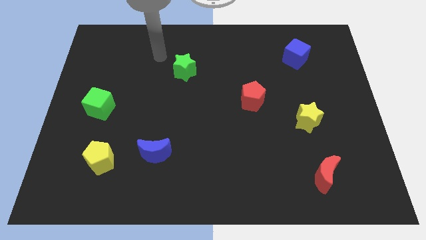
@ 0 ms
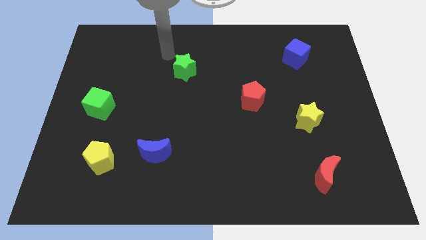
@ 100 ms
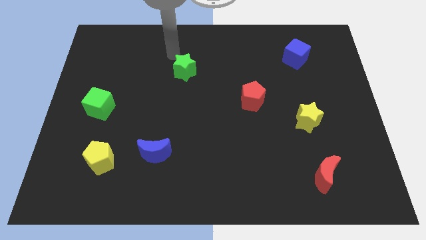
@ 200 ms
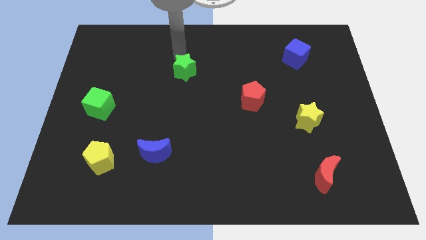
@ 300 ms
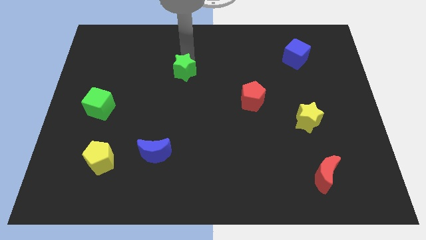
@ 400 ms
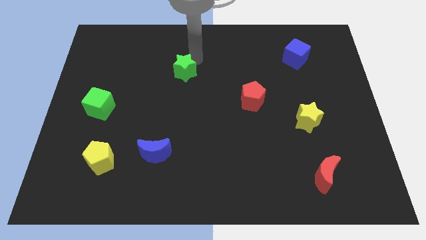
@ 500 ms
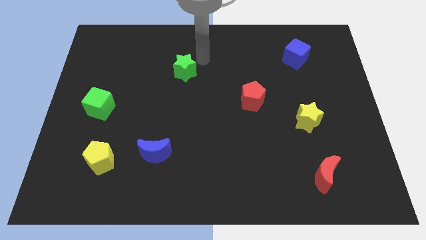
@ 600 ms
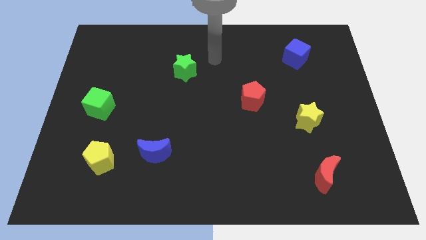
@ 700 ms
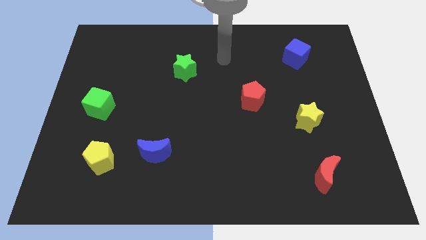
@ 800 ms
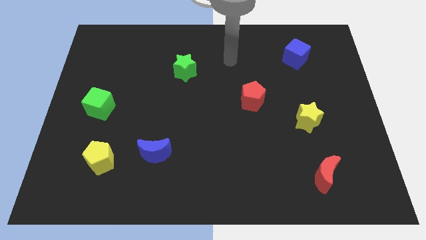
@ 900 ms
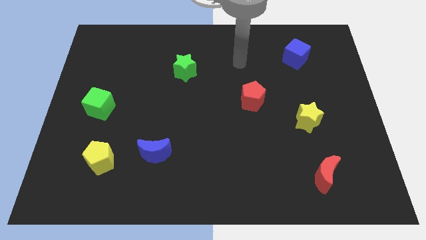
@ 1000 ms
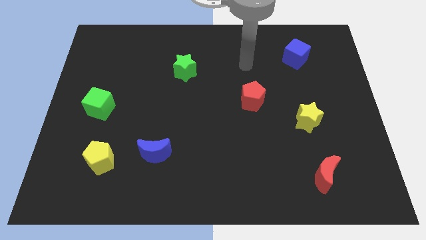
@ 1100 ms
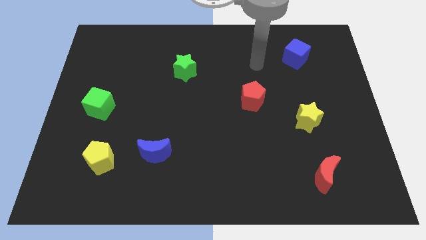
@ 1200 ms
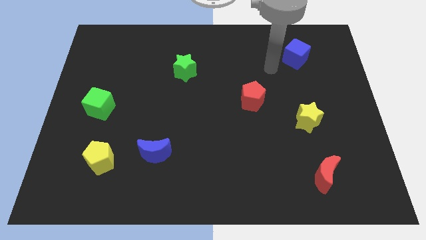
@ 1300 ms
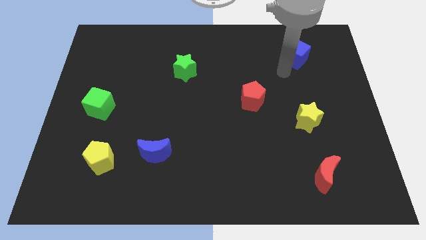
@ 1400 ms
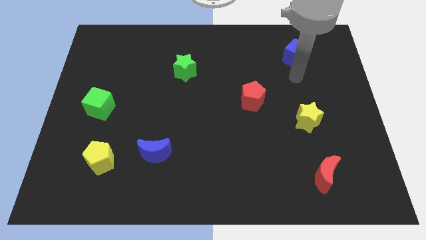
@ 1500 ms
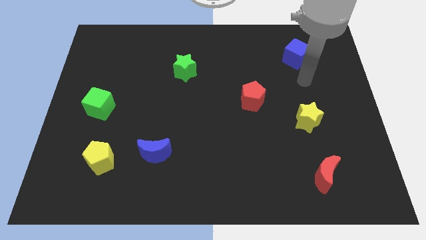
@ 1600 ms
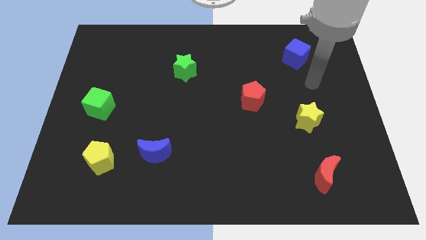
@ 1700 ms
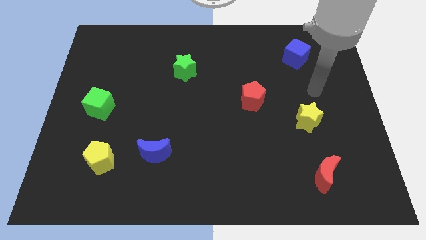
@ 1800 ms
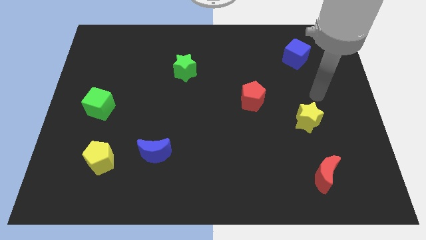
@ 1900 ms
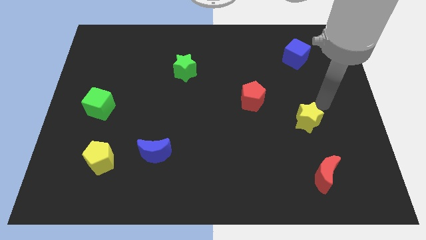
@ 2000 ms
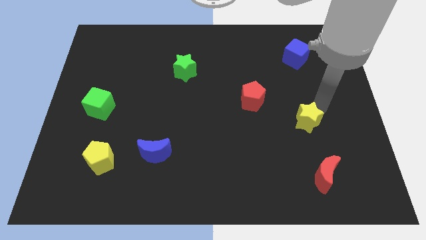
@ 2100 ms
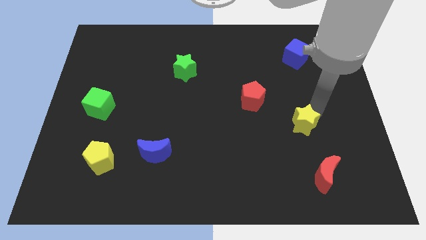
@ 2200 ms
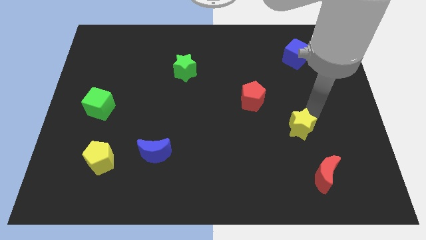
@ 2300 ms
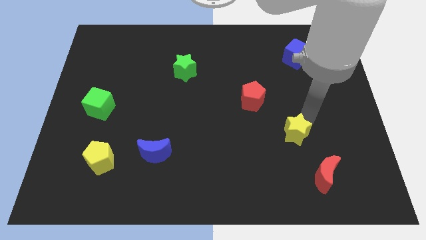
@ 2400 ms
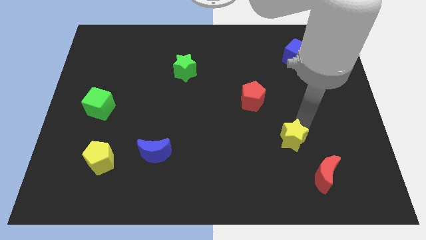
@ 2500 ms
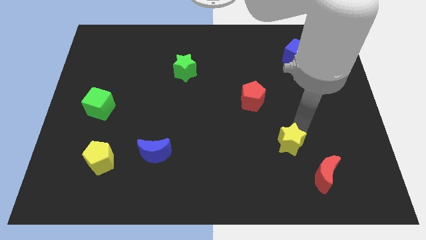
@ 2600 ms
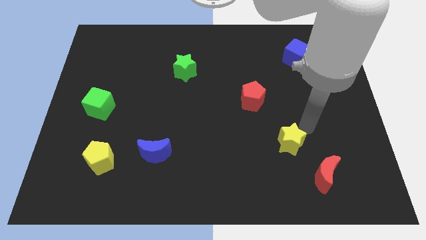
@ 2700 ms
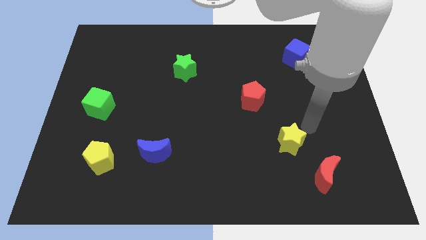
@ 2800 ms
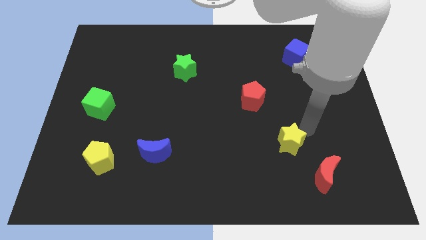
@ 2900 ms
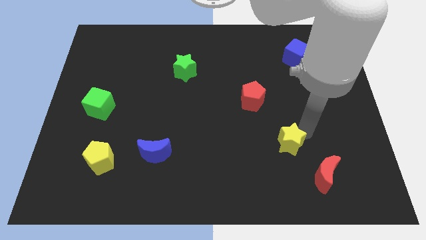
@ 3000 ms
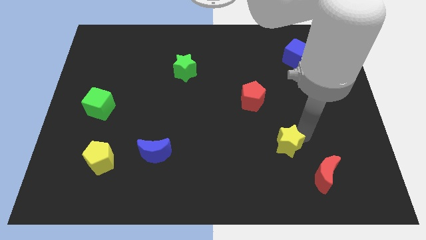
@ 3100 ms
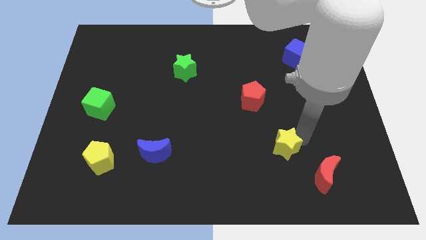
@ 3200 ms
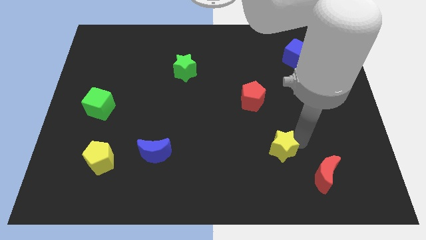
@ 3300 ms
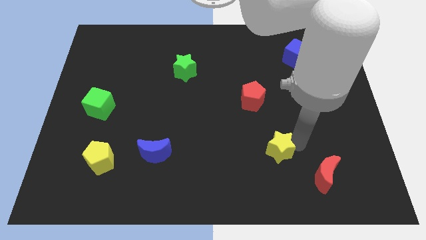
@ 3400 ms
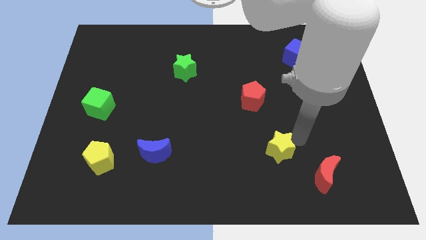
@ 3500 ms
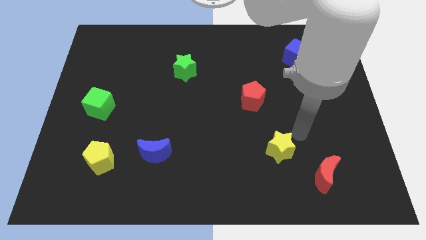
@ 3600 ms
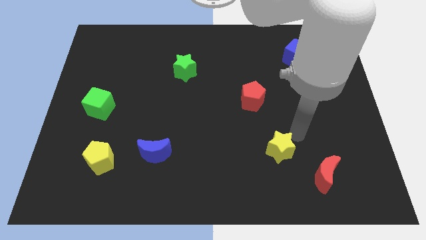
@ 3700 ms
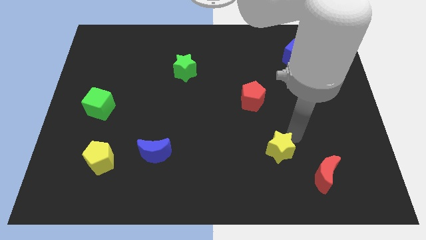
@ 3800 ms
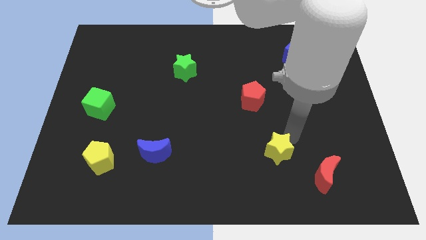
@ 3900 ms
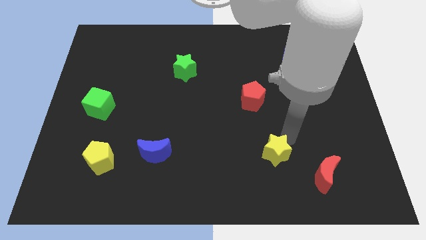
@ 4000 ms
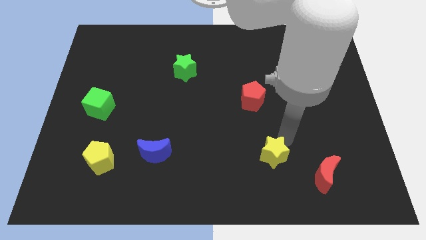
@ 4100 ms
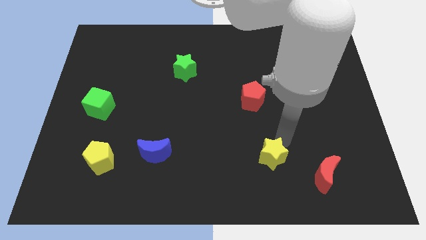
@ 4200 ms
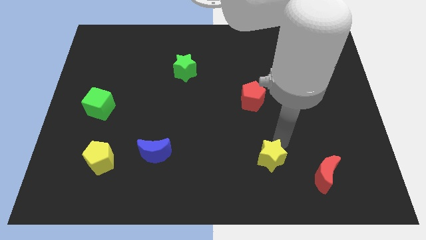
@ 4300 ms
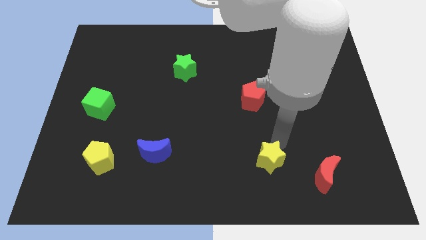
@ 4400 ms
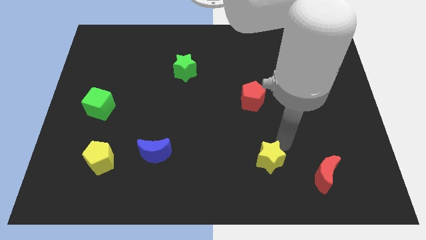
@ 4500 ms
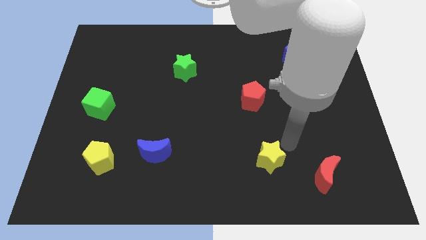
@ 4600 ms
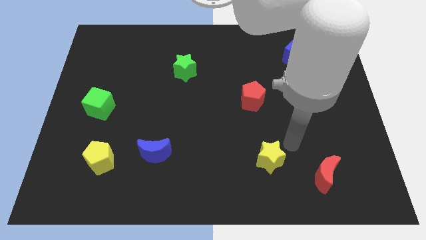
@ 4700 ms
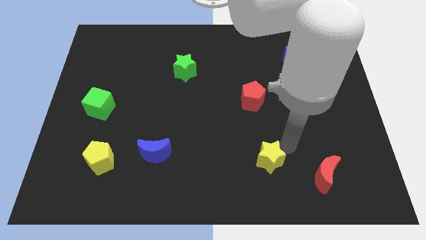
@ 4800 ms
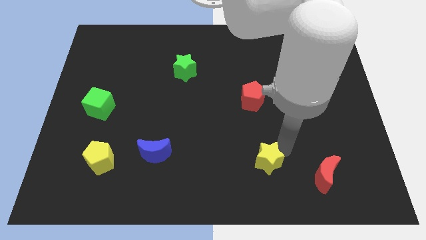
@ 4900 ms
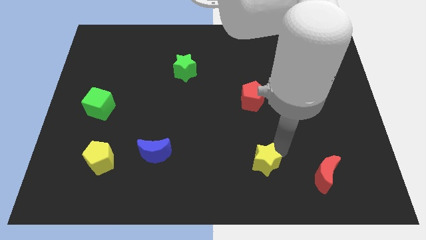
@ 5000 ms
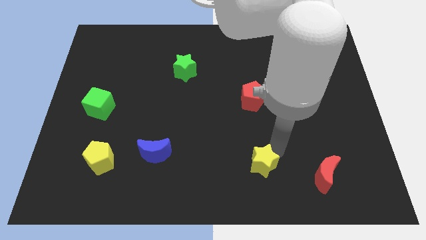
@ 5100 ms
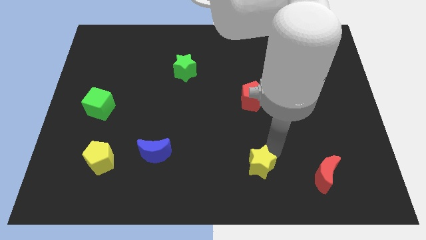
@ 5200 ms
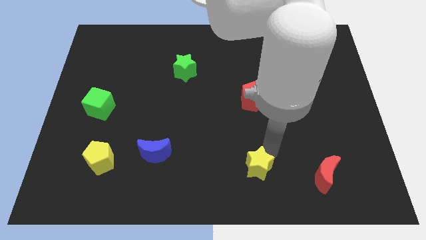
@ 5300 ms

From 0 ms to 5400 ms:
push the yellow star to the bottom

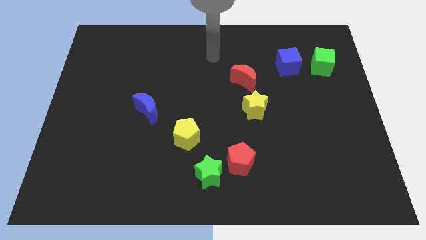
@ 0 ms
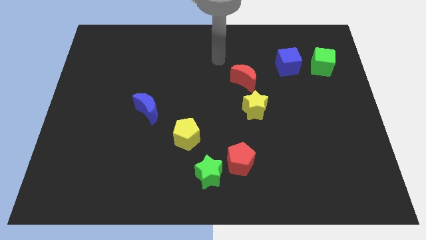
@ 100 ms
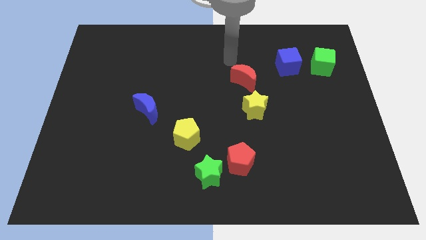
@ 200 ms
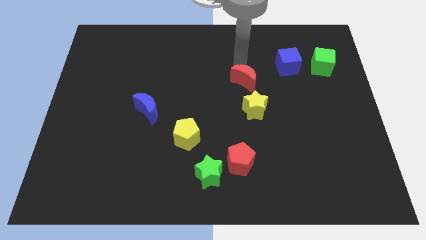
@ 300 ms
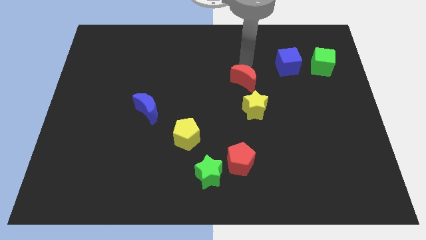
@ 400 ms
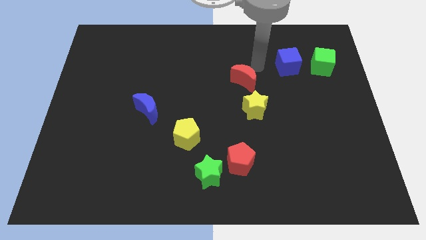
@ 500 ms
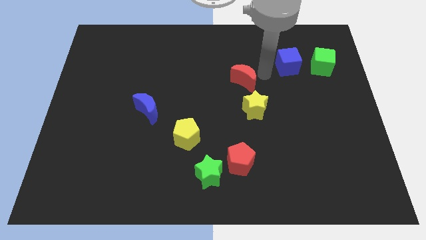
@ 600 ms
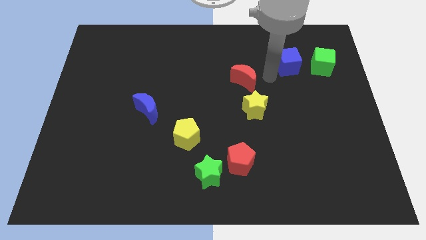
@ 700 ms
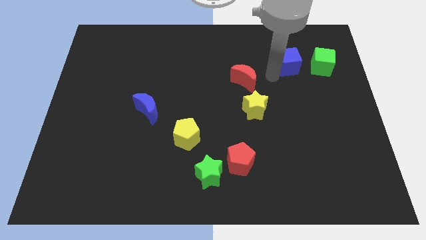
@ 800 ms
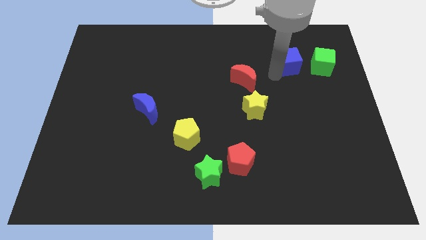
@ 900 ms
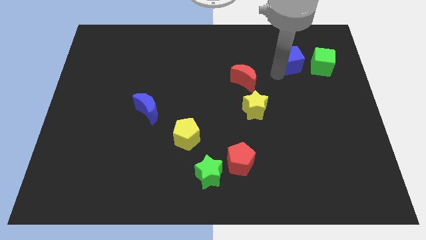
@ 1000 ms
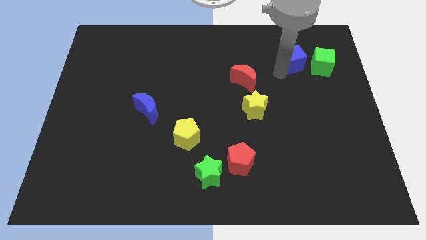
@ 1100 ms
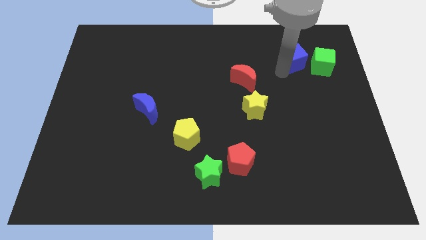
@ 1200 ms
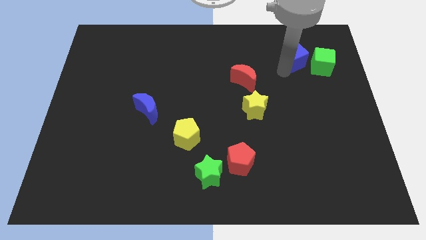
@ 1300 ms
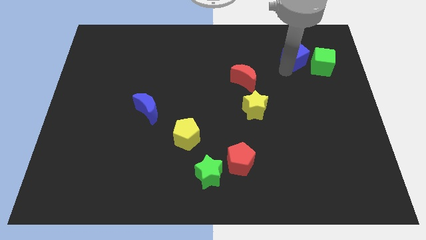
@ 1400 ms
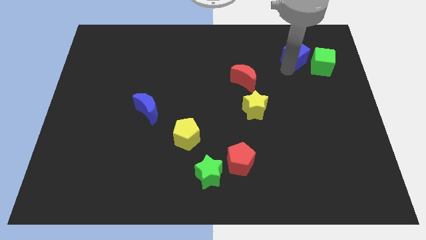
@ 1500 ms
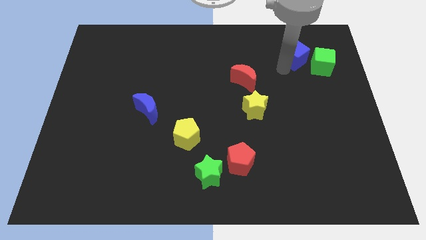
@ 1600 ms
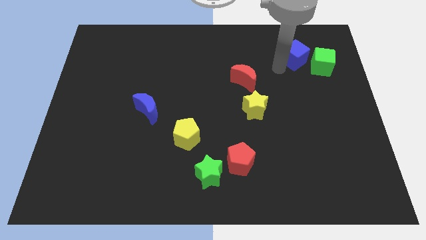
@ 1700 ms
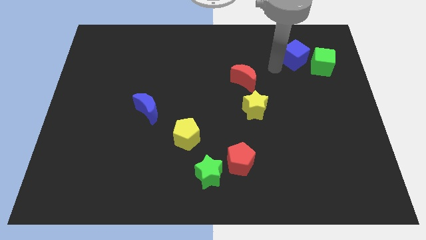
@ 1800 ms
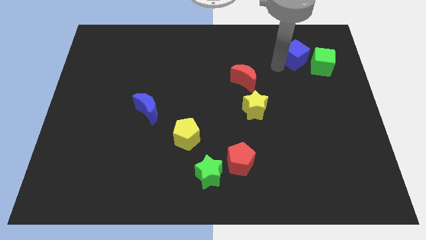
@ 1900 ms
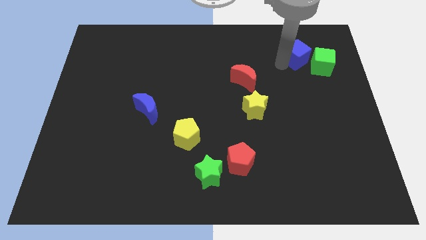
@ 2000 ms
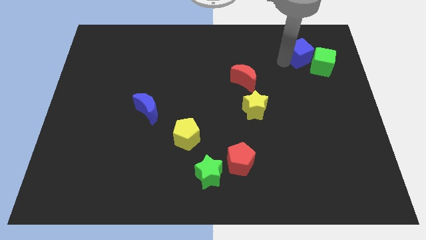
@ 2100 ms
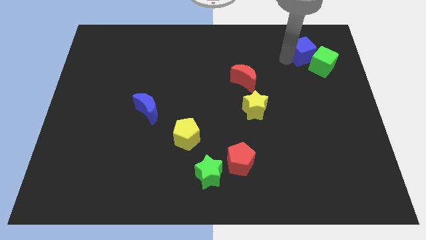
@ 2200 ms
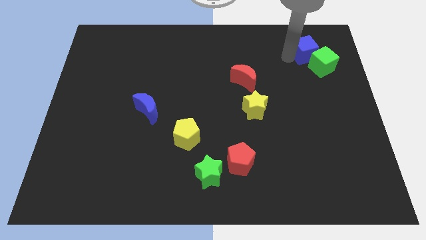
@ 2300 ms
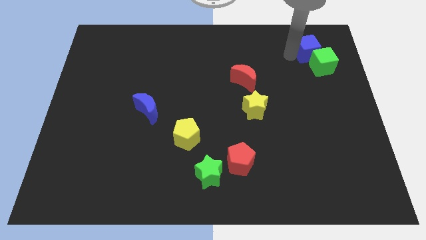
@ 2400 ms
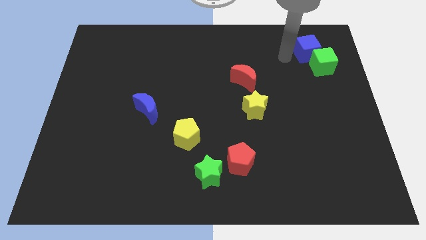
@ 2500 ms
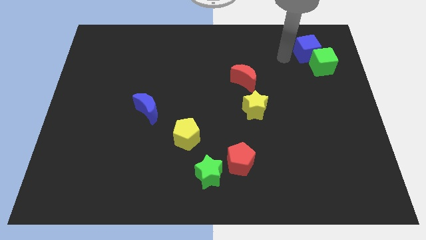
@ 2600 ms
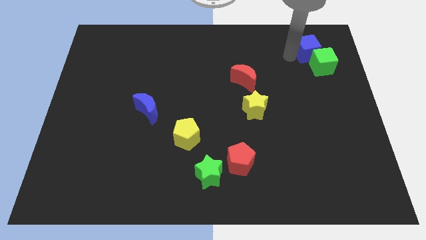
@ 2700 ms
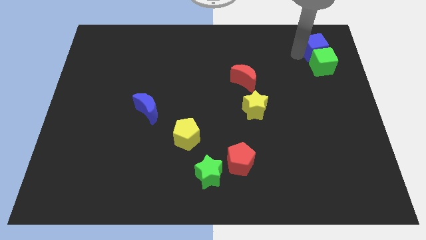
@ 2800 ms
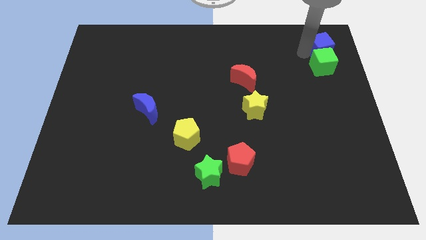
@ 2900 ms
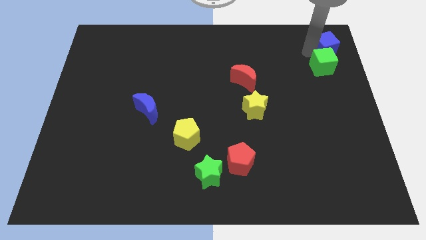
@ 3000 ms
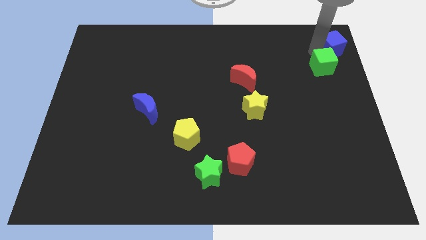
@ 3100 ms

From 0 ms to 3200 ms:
slide the blue cube to the top right of the board
